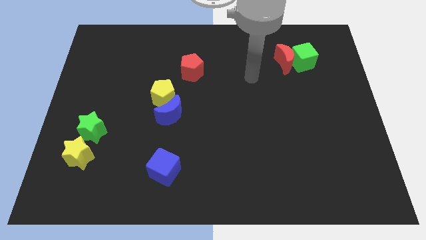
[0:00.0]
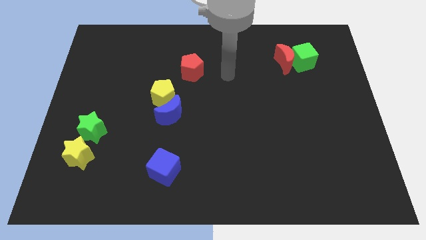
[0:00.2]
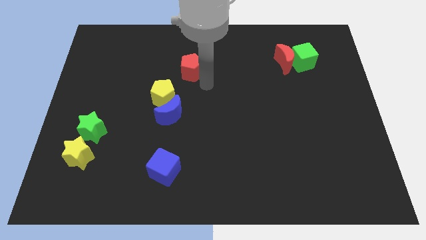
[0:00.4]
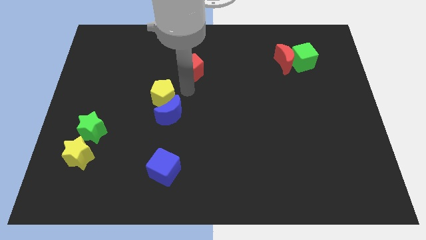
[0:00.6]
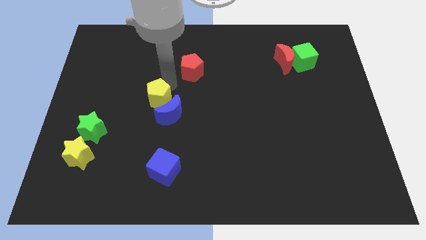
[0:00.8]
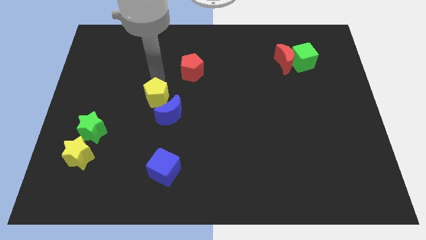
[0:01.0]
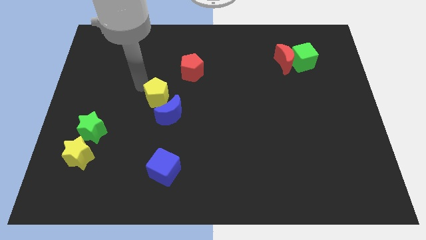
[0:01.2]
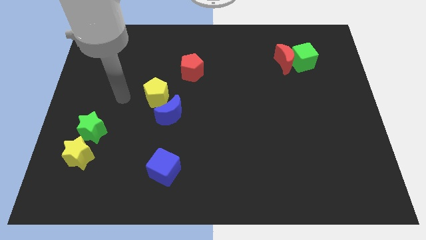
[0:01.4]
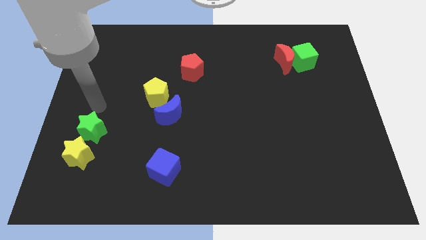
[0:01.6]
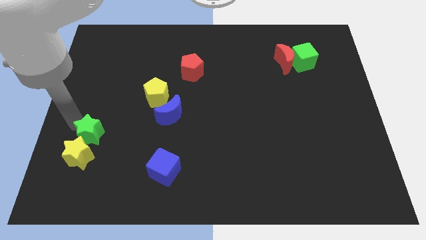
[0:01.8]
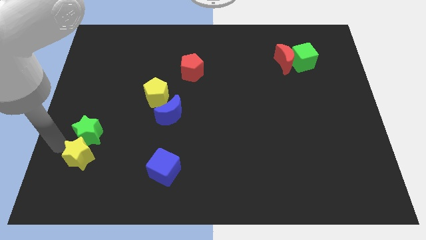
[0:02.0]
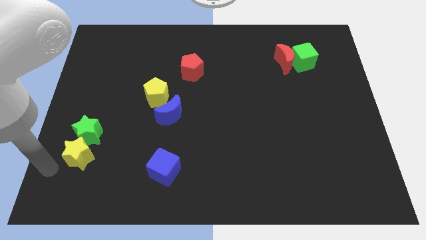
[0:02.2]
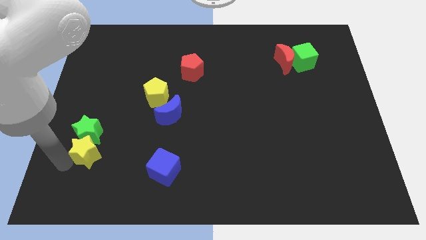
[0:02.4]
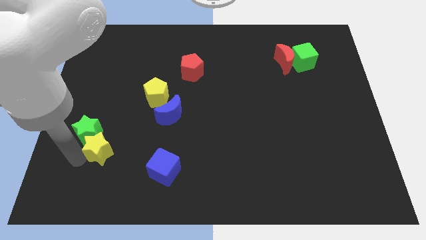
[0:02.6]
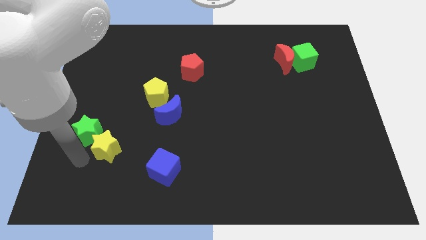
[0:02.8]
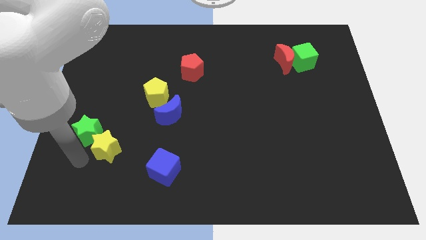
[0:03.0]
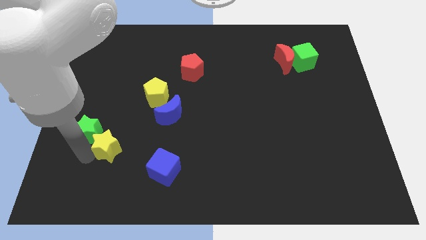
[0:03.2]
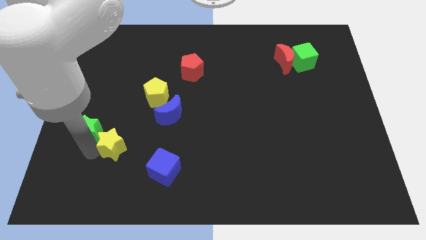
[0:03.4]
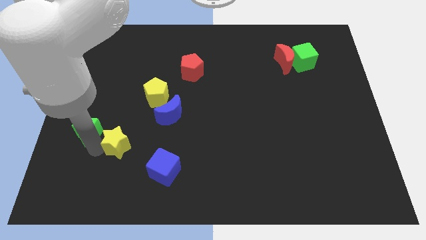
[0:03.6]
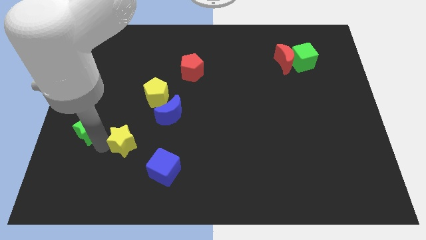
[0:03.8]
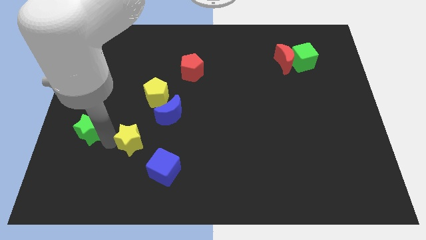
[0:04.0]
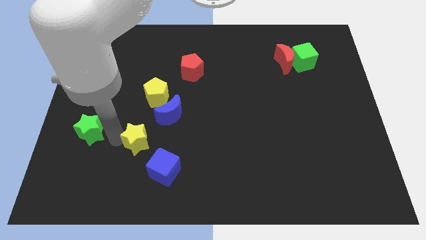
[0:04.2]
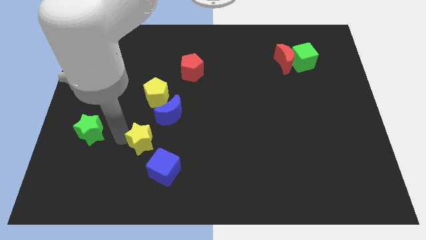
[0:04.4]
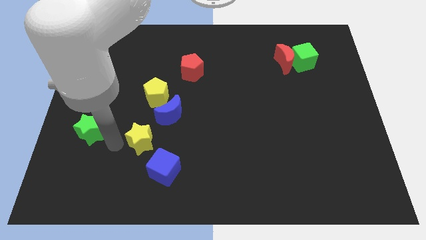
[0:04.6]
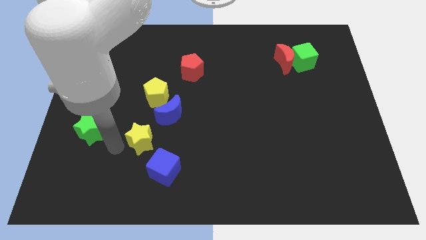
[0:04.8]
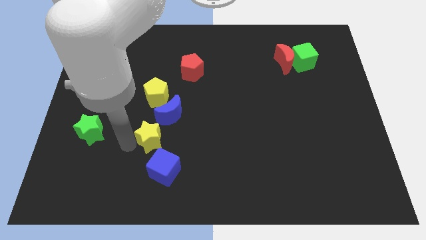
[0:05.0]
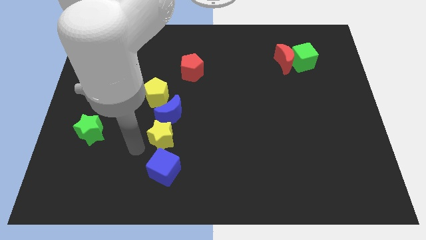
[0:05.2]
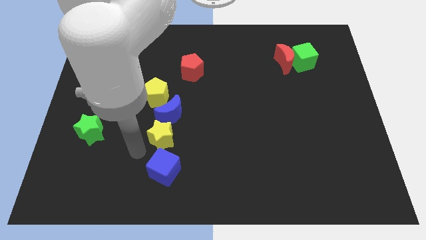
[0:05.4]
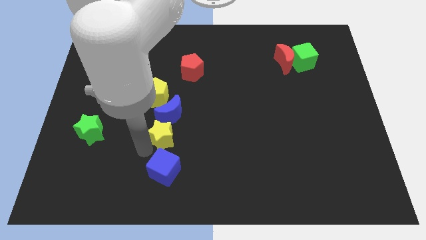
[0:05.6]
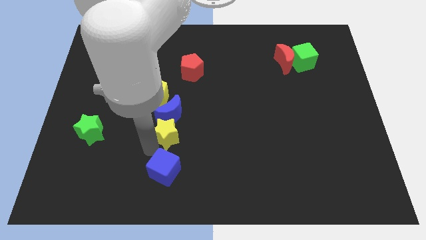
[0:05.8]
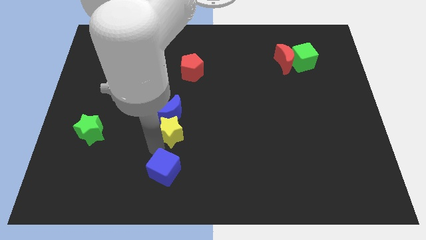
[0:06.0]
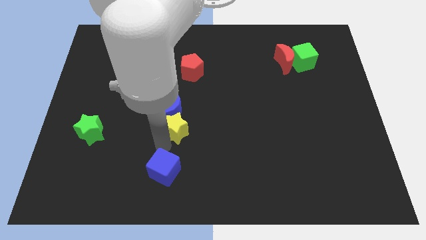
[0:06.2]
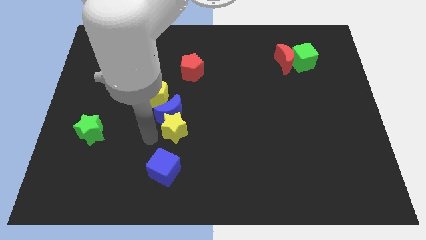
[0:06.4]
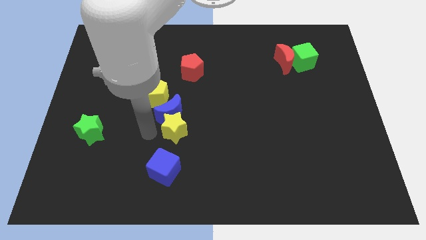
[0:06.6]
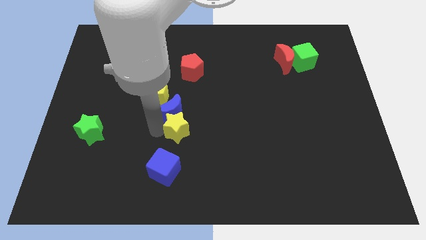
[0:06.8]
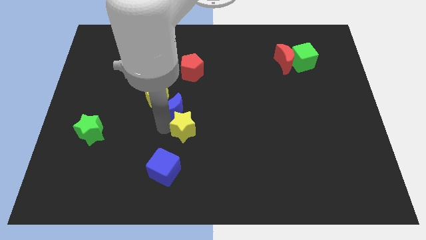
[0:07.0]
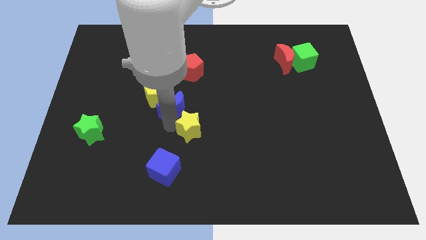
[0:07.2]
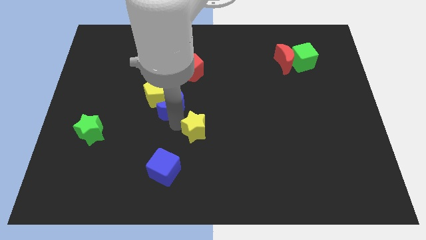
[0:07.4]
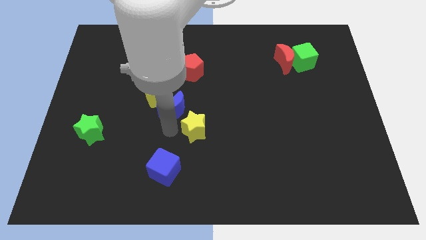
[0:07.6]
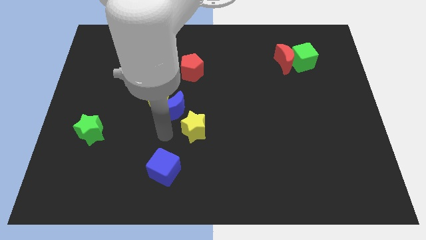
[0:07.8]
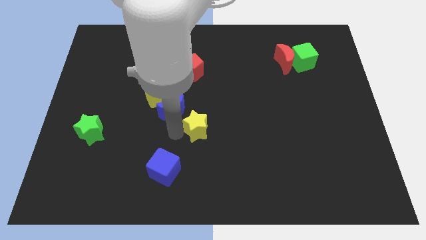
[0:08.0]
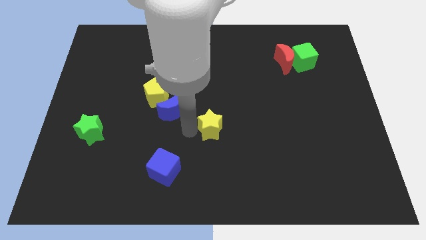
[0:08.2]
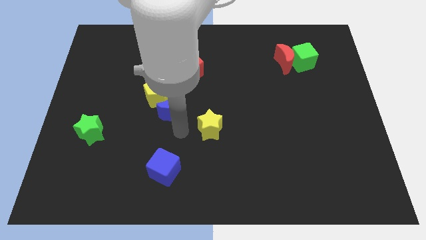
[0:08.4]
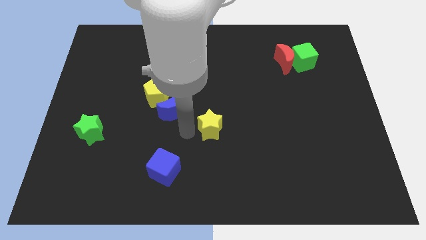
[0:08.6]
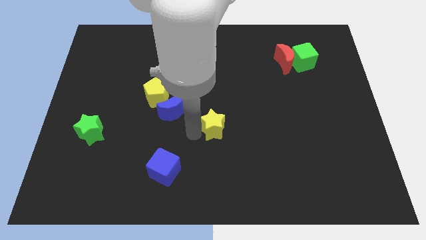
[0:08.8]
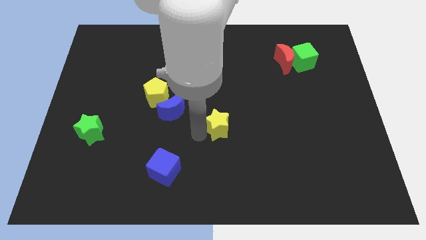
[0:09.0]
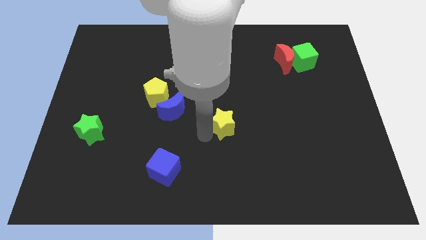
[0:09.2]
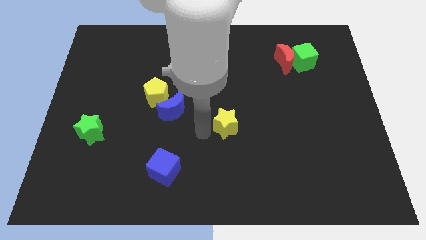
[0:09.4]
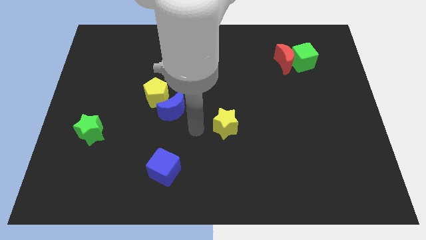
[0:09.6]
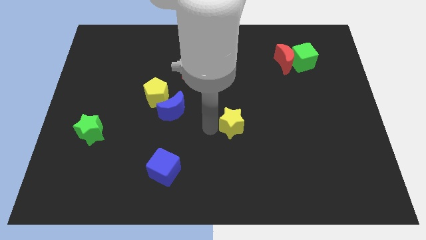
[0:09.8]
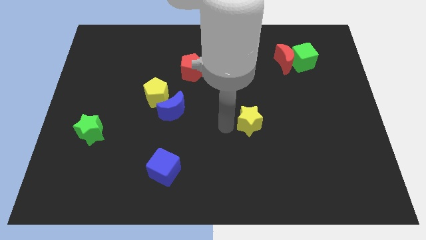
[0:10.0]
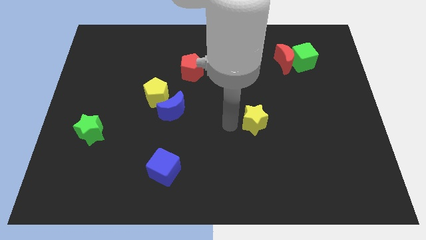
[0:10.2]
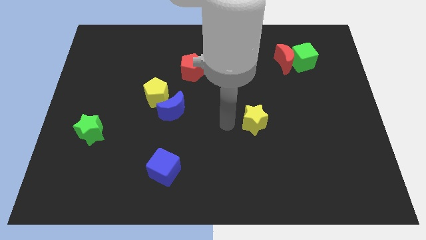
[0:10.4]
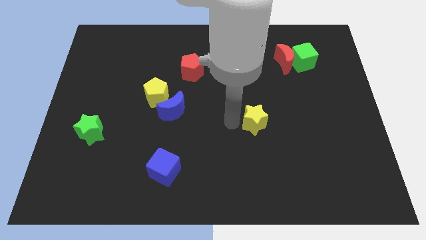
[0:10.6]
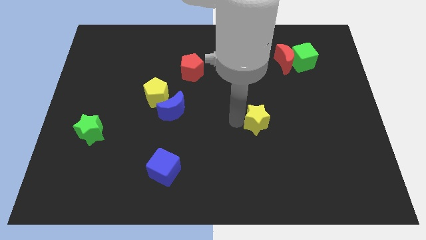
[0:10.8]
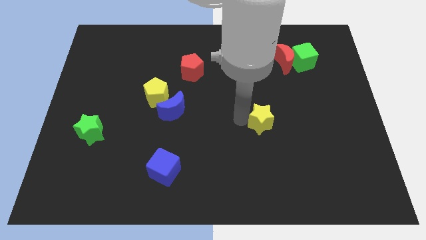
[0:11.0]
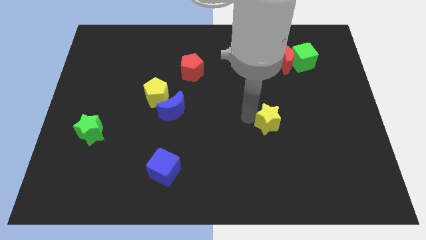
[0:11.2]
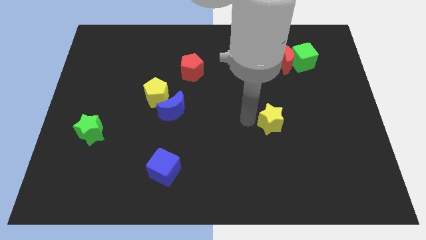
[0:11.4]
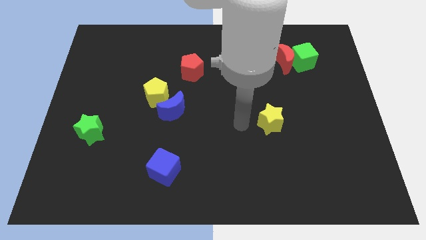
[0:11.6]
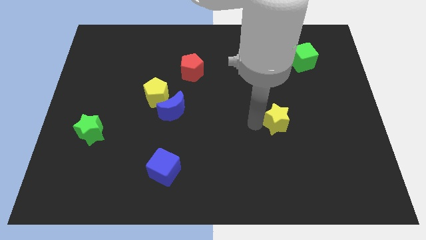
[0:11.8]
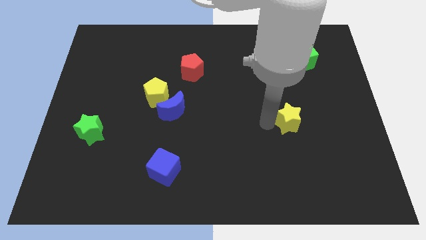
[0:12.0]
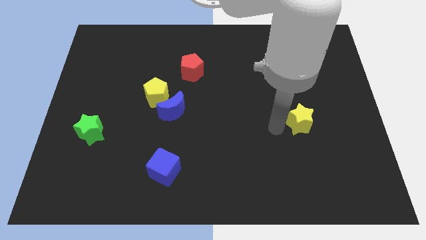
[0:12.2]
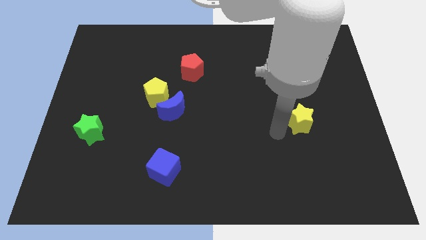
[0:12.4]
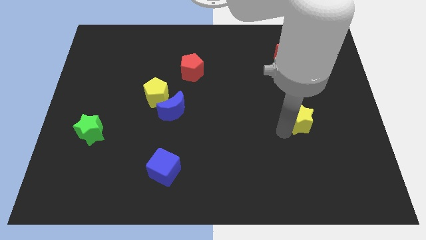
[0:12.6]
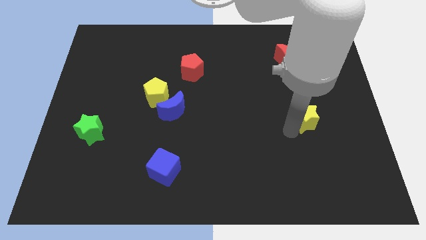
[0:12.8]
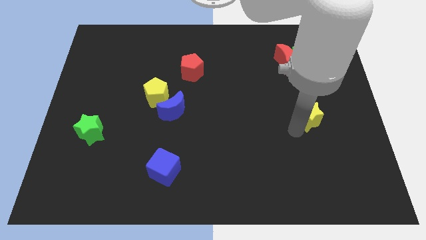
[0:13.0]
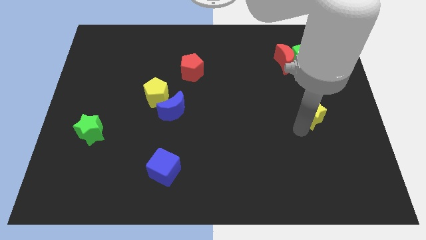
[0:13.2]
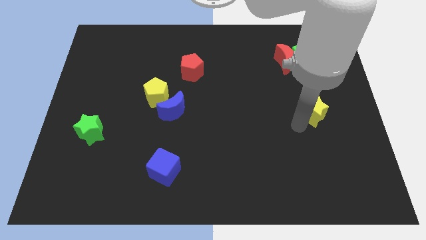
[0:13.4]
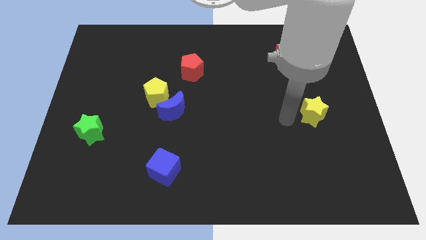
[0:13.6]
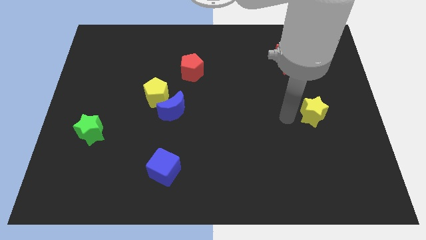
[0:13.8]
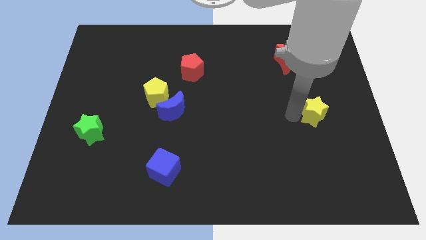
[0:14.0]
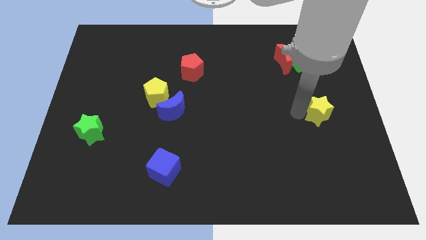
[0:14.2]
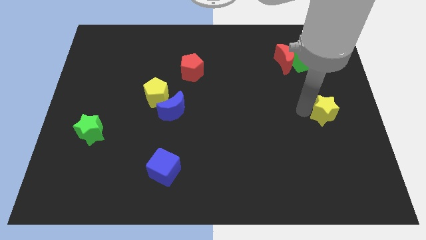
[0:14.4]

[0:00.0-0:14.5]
move the yellow star to the right side of the board

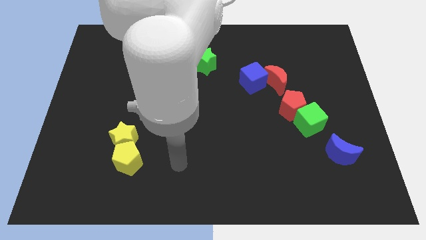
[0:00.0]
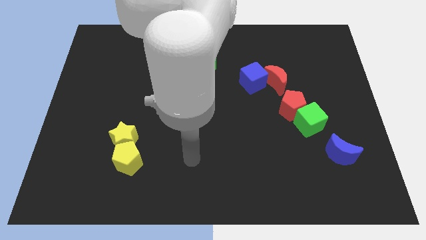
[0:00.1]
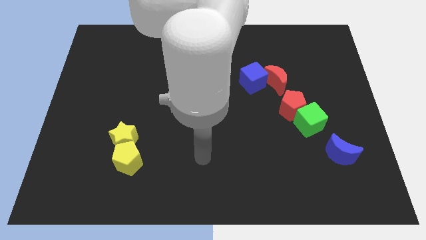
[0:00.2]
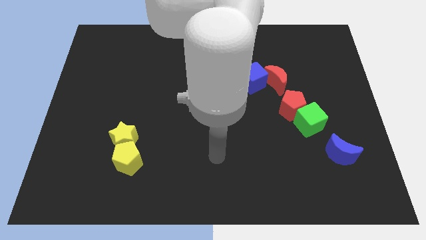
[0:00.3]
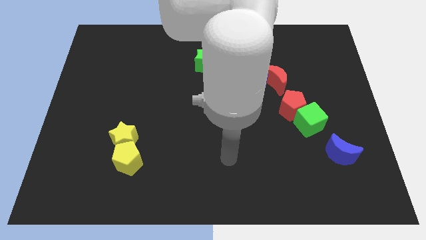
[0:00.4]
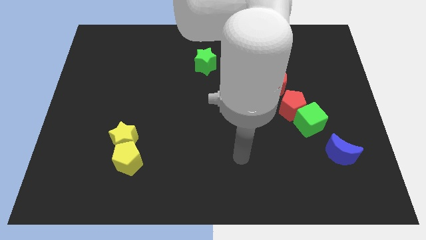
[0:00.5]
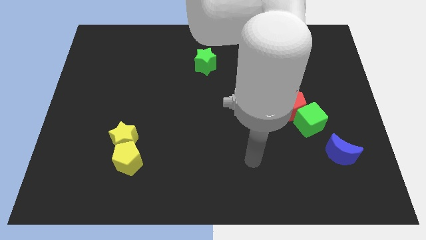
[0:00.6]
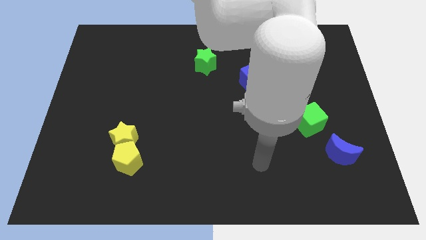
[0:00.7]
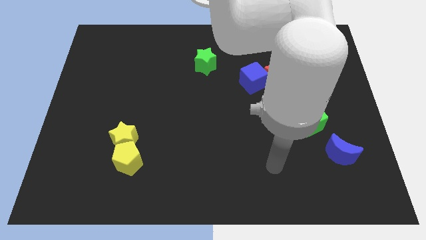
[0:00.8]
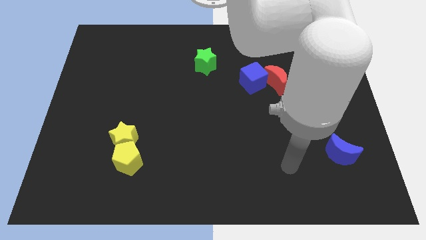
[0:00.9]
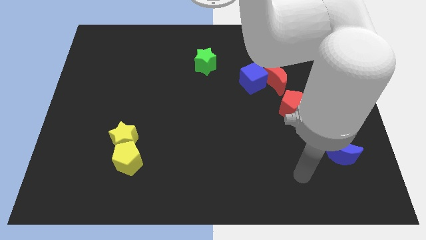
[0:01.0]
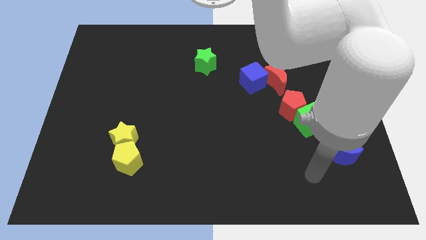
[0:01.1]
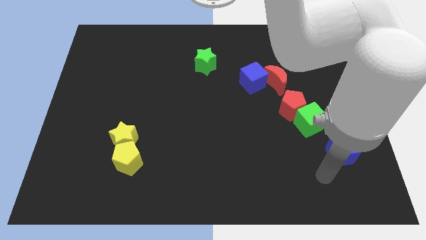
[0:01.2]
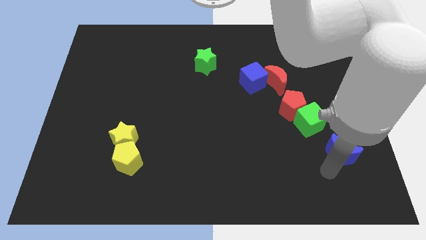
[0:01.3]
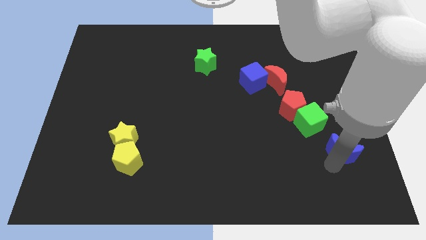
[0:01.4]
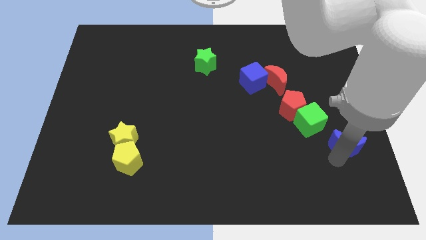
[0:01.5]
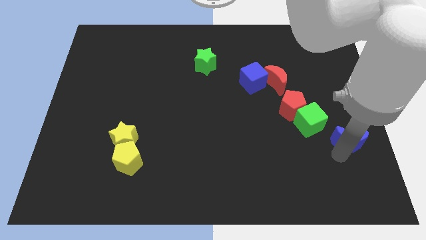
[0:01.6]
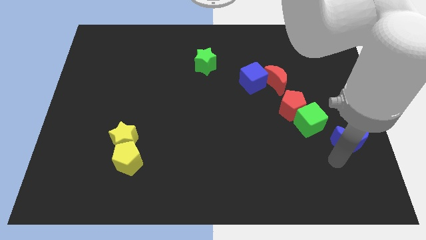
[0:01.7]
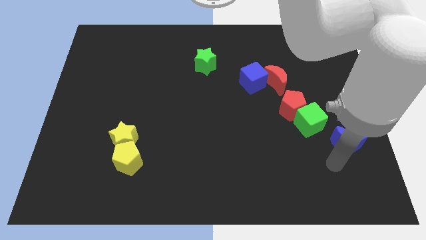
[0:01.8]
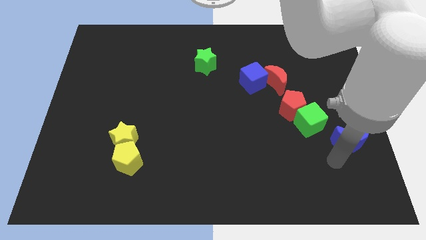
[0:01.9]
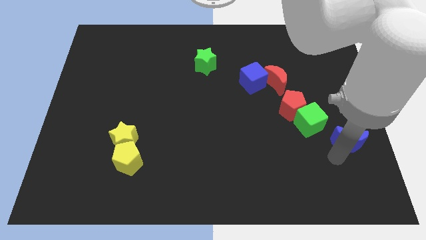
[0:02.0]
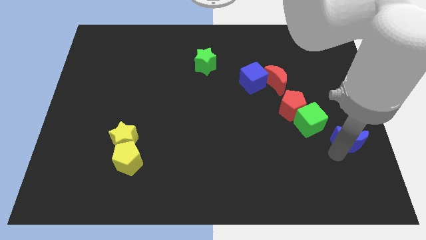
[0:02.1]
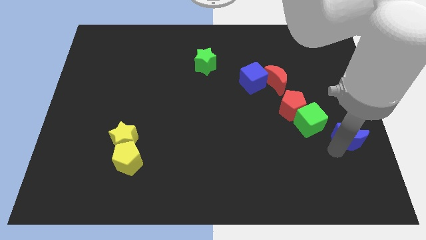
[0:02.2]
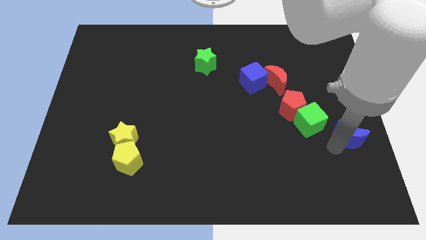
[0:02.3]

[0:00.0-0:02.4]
slide the blue moon to the center right
